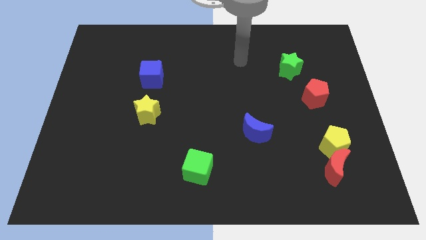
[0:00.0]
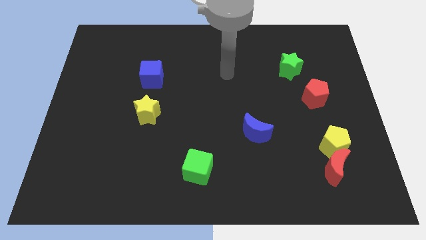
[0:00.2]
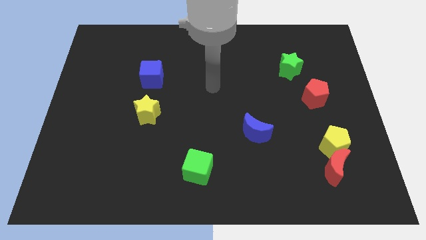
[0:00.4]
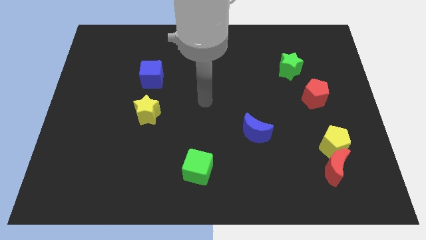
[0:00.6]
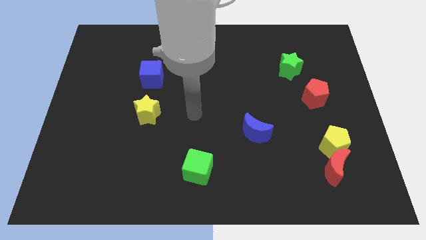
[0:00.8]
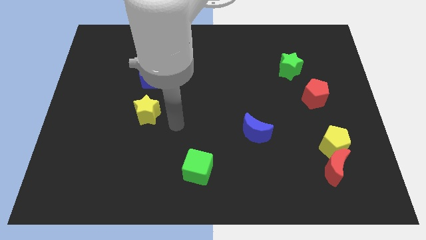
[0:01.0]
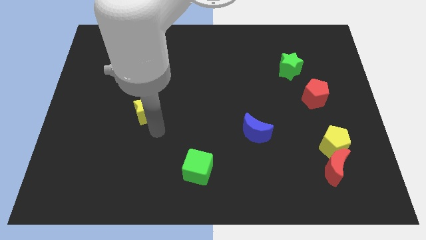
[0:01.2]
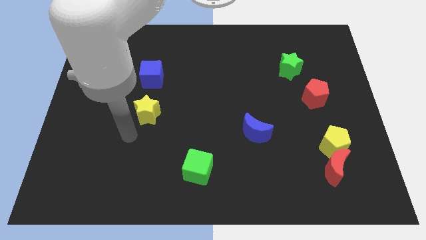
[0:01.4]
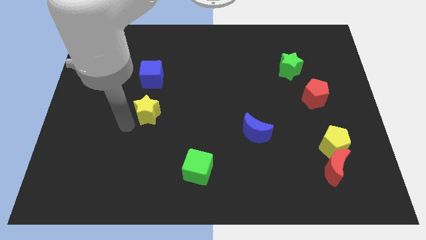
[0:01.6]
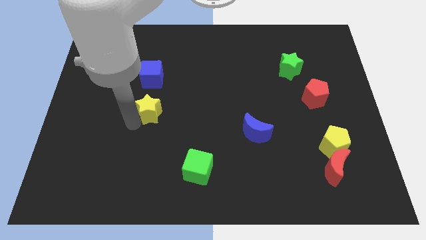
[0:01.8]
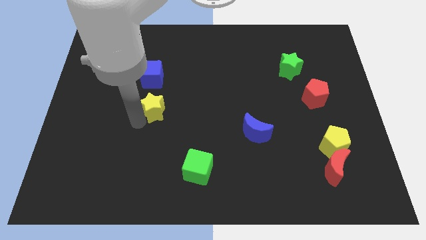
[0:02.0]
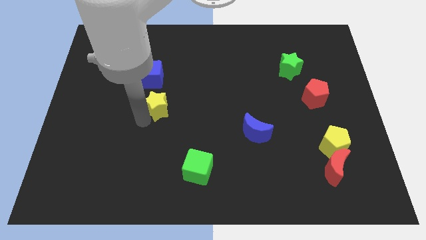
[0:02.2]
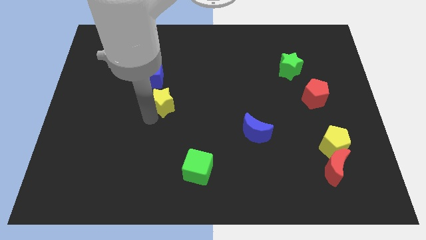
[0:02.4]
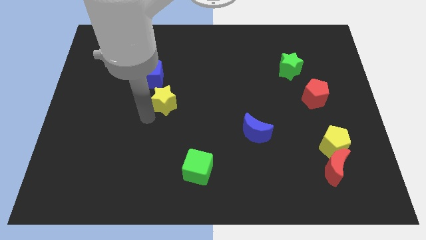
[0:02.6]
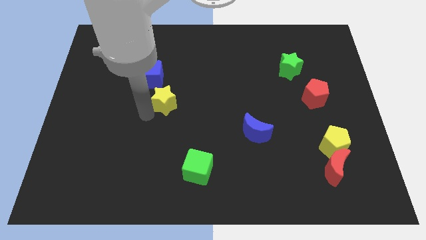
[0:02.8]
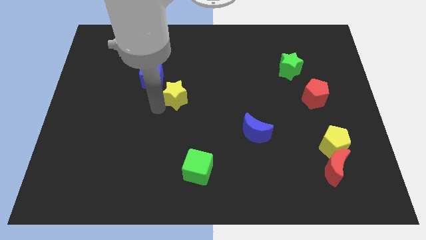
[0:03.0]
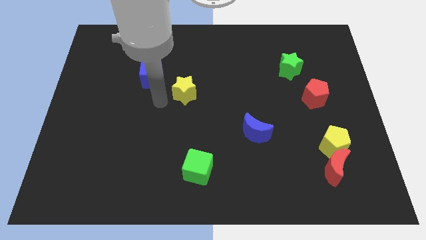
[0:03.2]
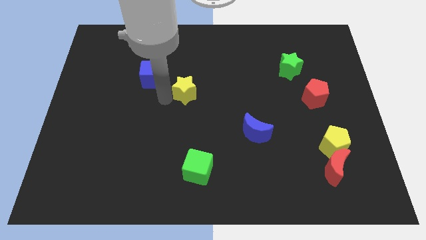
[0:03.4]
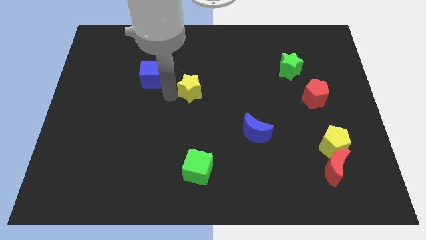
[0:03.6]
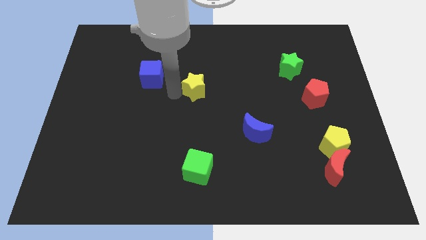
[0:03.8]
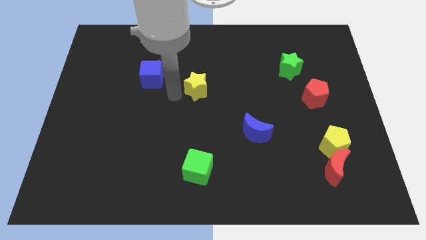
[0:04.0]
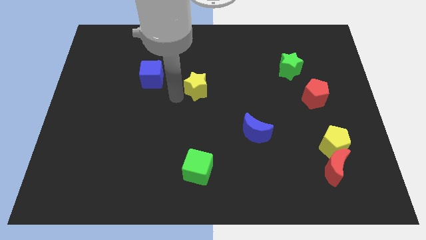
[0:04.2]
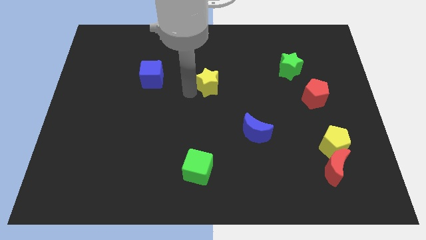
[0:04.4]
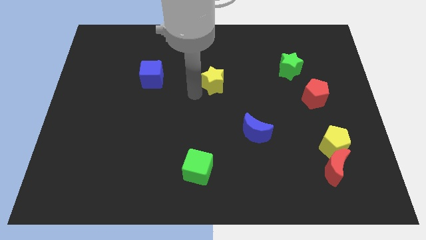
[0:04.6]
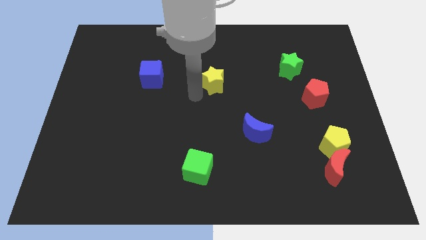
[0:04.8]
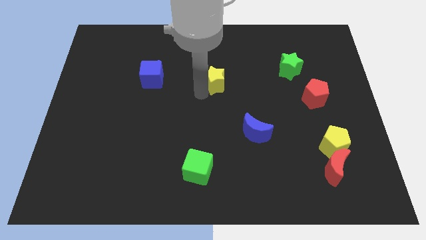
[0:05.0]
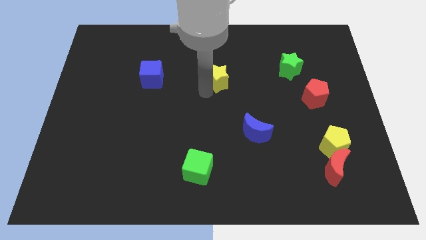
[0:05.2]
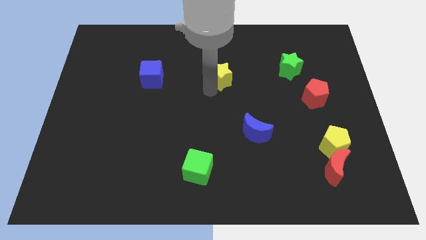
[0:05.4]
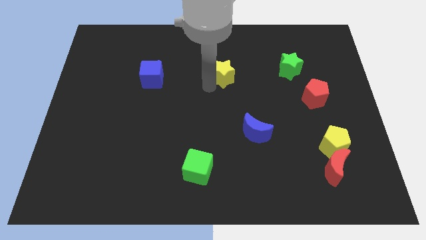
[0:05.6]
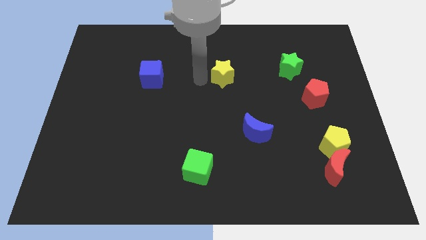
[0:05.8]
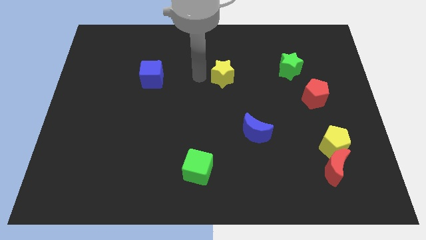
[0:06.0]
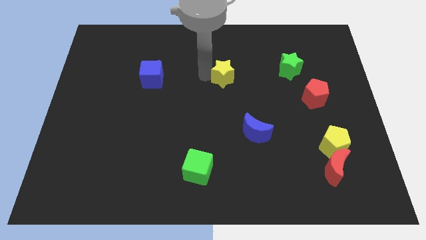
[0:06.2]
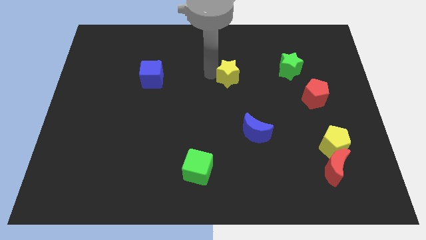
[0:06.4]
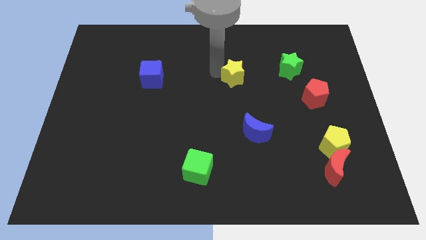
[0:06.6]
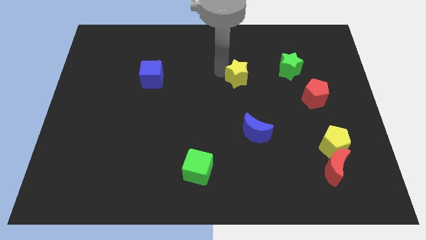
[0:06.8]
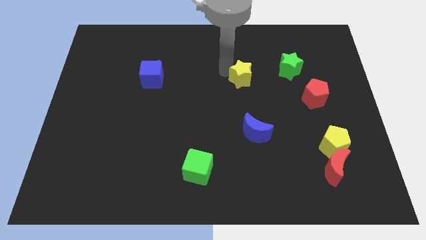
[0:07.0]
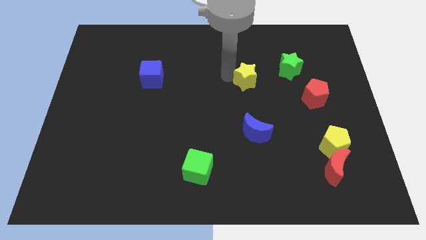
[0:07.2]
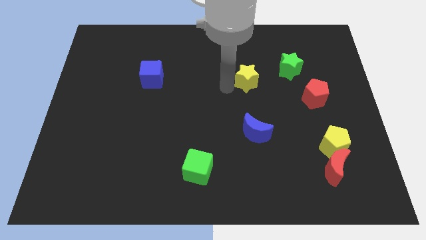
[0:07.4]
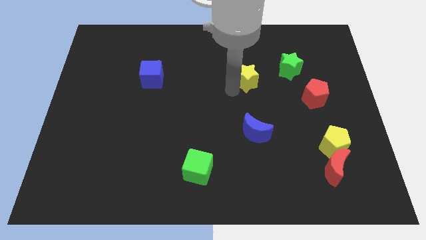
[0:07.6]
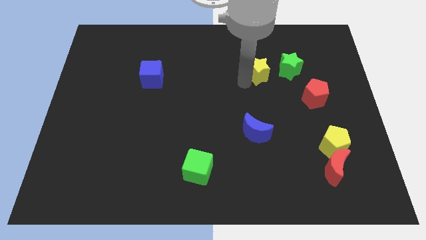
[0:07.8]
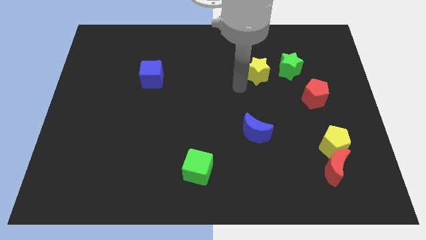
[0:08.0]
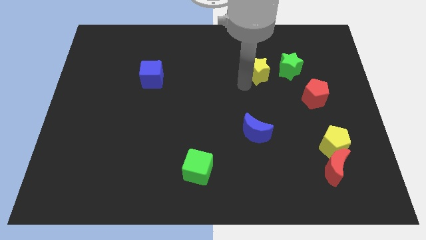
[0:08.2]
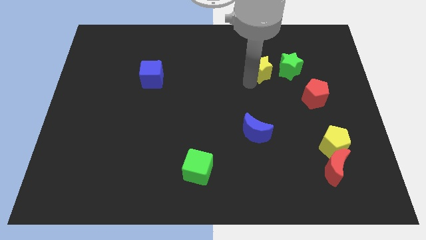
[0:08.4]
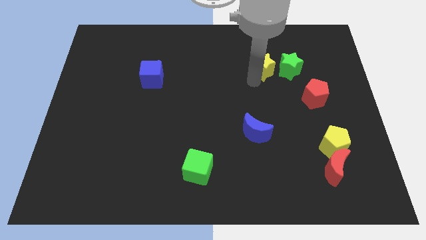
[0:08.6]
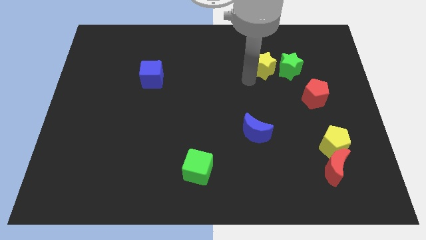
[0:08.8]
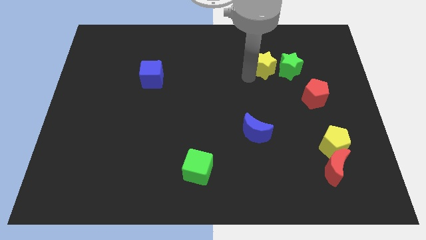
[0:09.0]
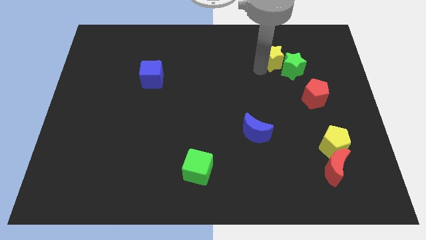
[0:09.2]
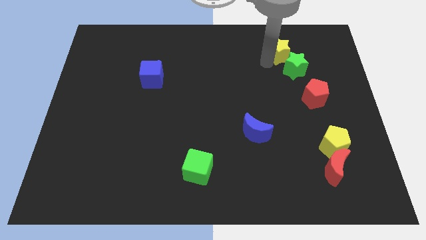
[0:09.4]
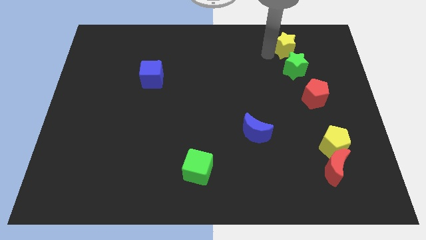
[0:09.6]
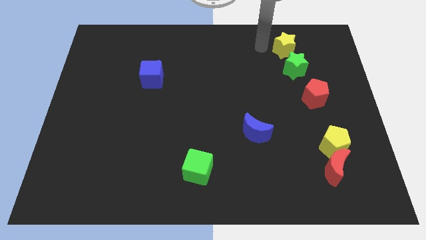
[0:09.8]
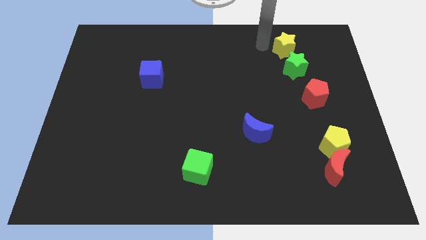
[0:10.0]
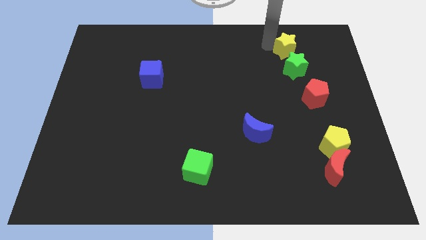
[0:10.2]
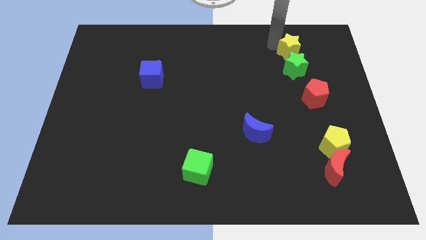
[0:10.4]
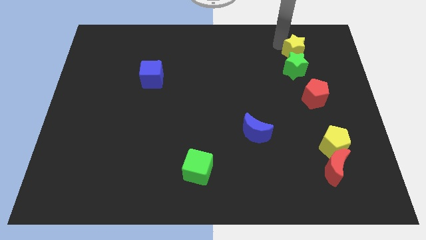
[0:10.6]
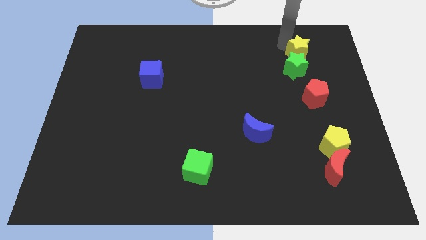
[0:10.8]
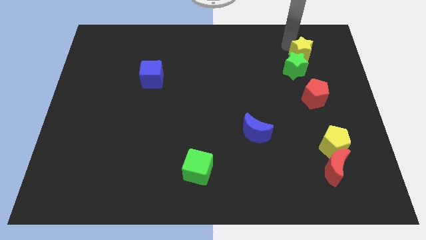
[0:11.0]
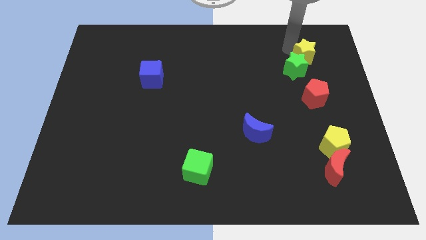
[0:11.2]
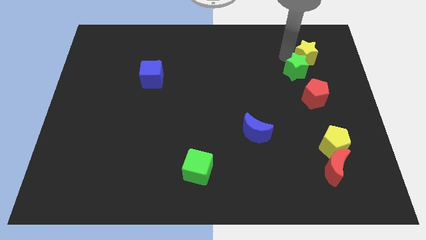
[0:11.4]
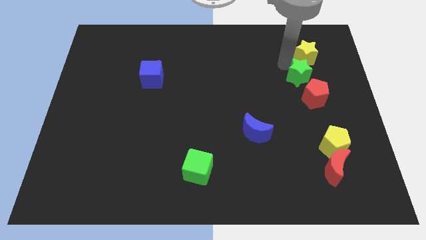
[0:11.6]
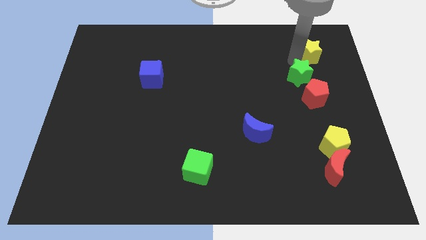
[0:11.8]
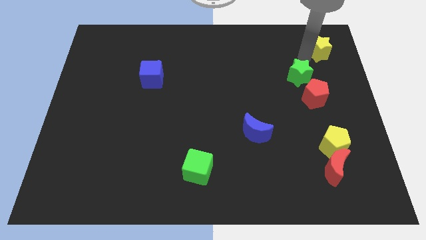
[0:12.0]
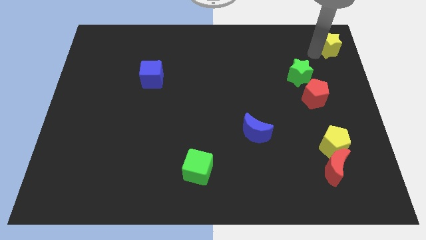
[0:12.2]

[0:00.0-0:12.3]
move the yellow star to the top right of the board

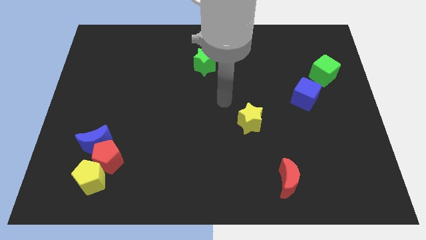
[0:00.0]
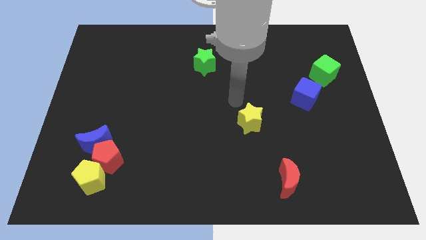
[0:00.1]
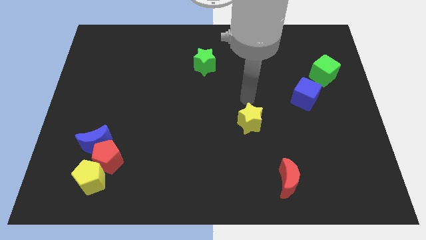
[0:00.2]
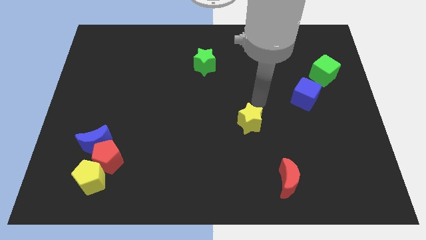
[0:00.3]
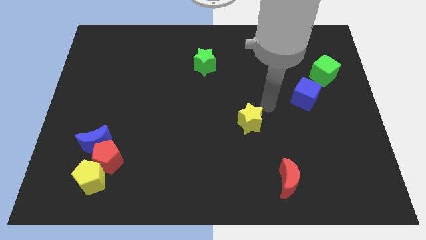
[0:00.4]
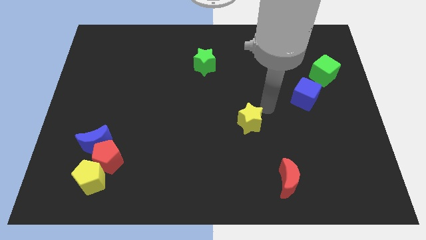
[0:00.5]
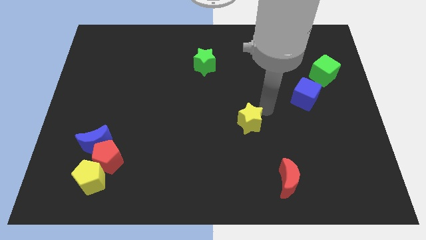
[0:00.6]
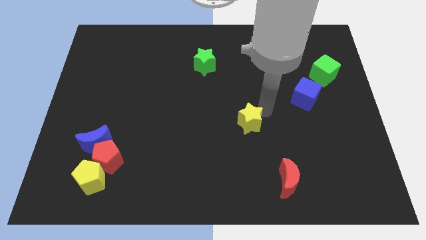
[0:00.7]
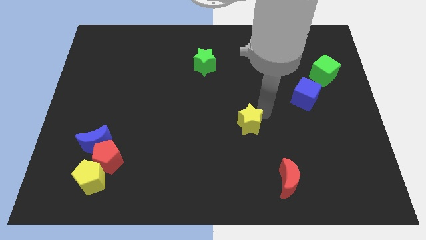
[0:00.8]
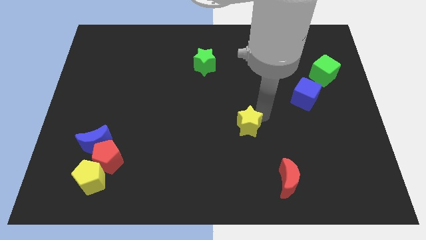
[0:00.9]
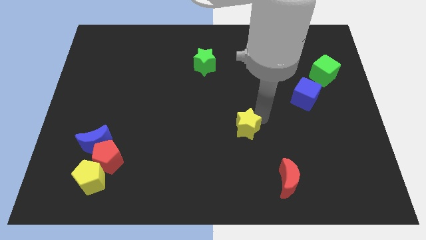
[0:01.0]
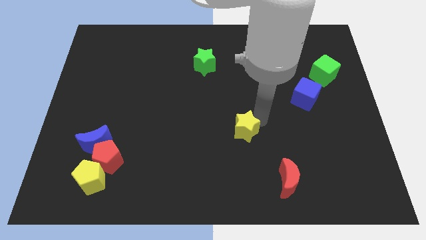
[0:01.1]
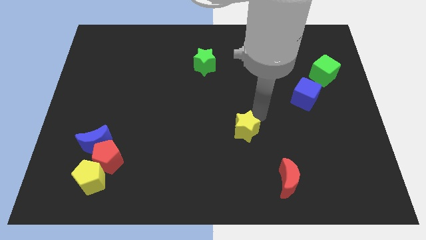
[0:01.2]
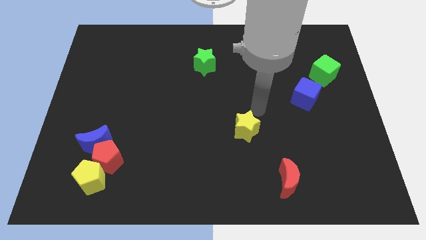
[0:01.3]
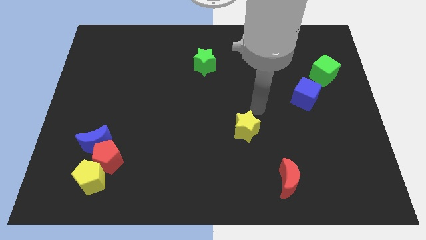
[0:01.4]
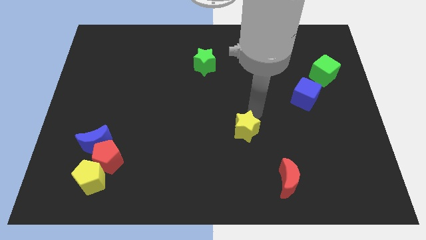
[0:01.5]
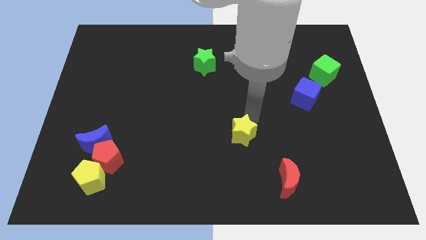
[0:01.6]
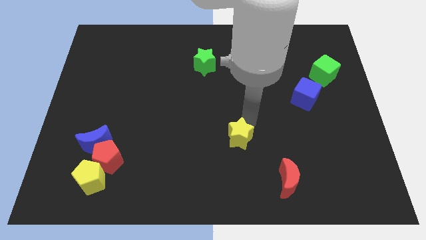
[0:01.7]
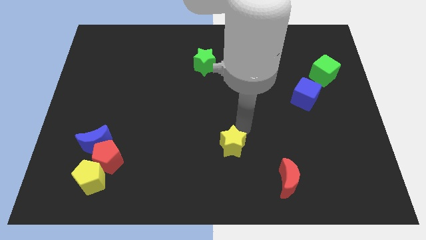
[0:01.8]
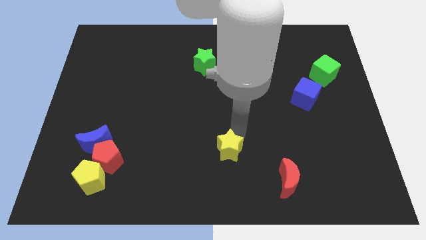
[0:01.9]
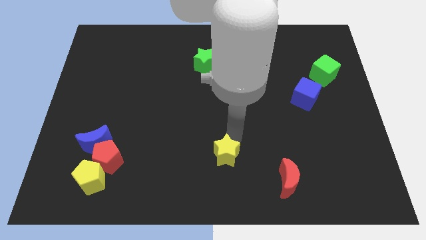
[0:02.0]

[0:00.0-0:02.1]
push the yellow star to the bottom
